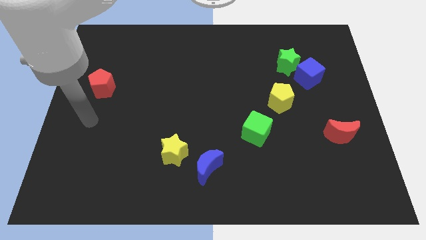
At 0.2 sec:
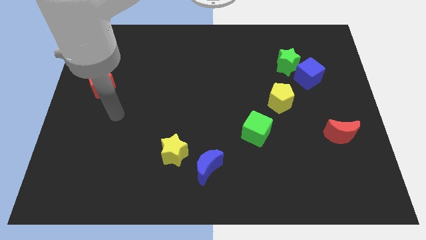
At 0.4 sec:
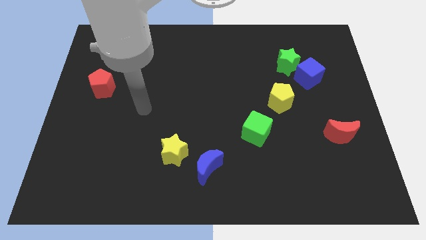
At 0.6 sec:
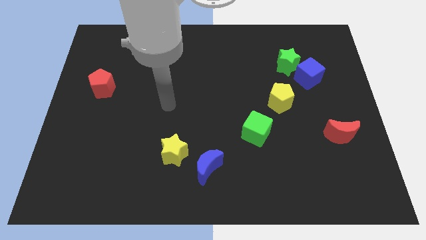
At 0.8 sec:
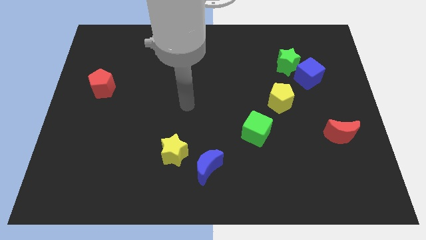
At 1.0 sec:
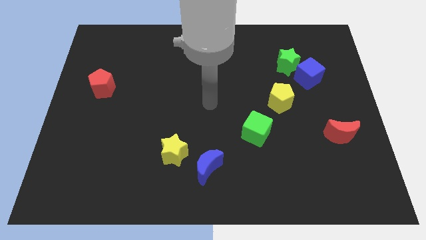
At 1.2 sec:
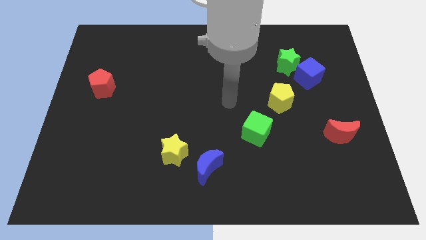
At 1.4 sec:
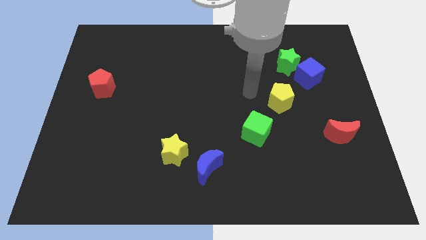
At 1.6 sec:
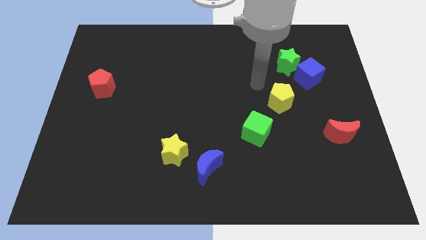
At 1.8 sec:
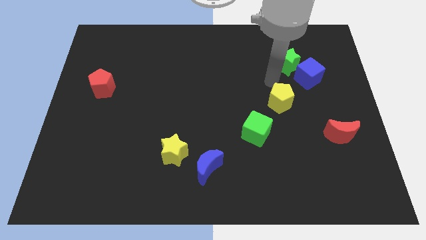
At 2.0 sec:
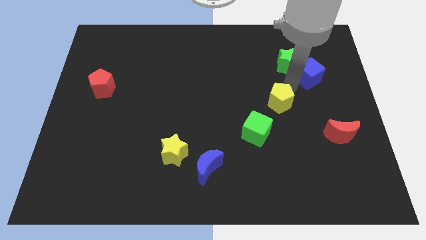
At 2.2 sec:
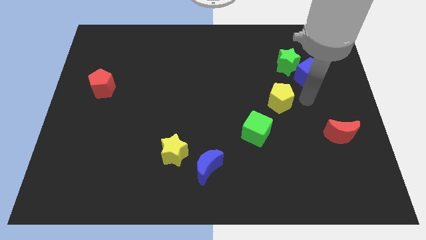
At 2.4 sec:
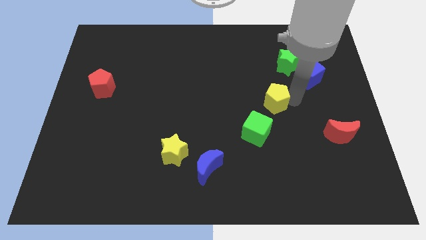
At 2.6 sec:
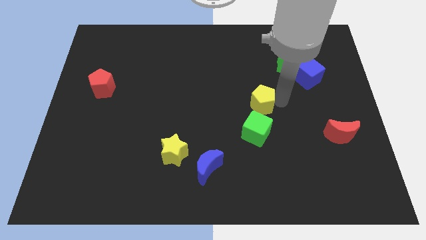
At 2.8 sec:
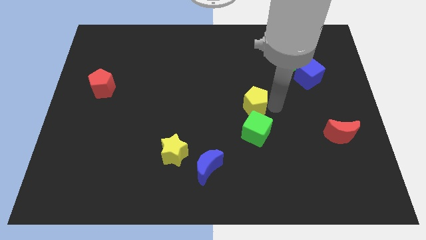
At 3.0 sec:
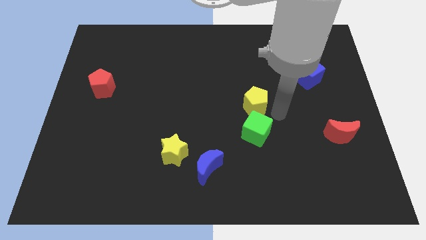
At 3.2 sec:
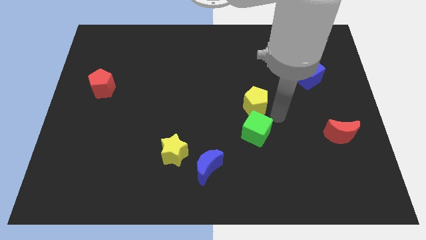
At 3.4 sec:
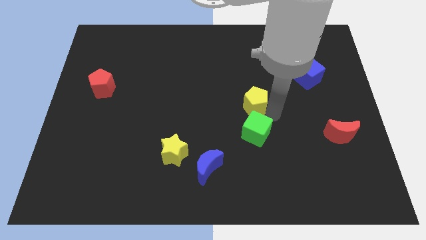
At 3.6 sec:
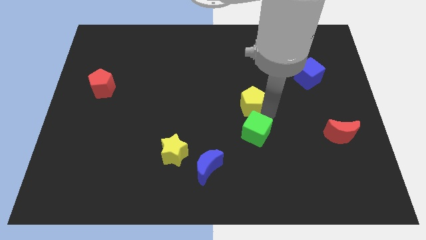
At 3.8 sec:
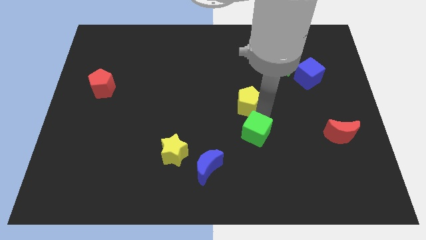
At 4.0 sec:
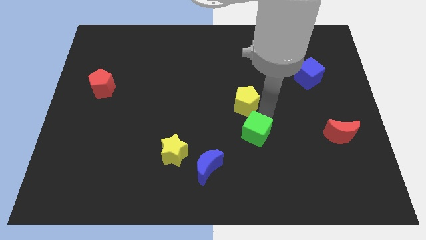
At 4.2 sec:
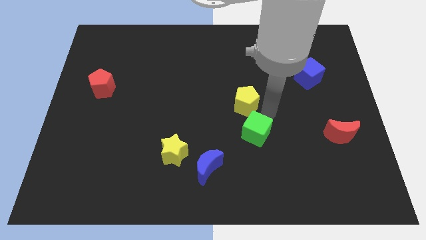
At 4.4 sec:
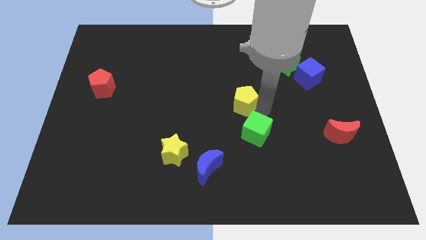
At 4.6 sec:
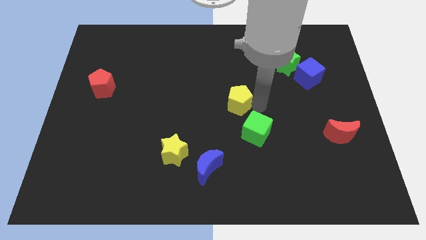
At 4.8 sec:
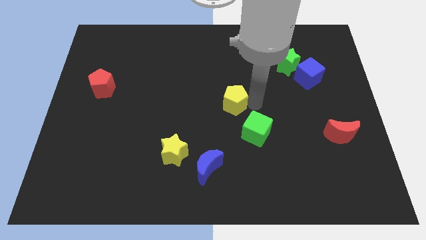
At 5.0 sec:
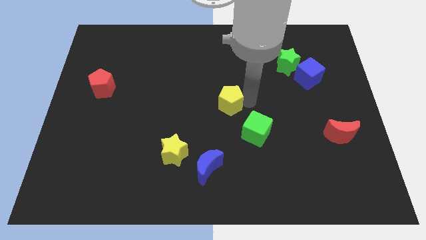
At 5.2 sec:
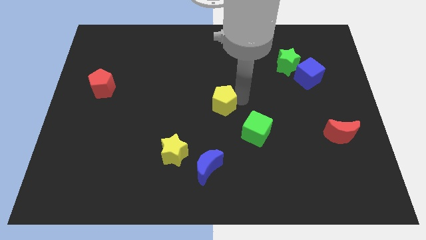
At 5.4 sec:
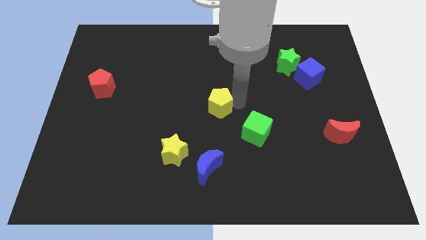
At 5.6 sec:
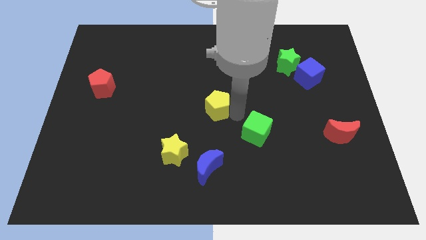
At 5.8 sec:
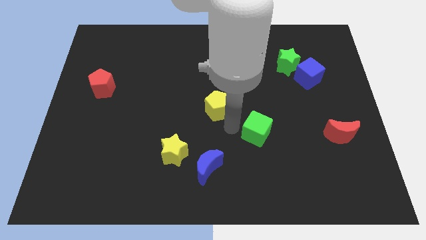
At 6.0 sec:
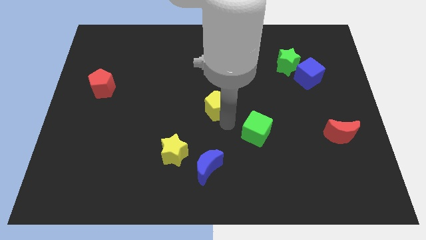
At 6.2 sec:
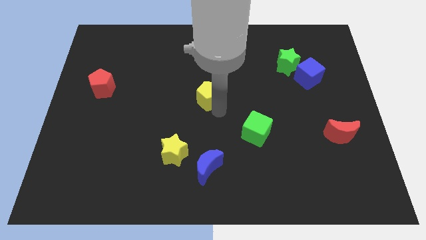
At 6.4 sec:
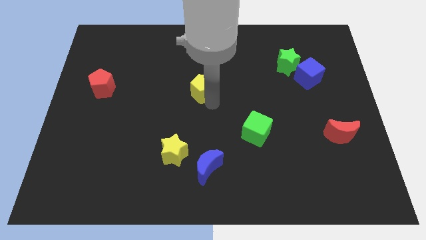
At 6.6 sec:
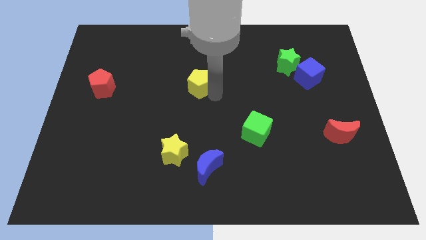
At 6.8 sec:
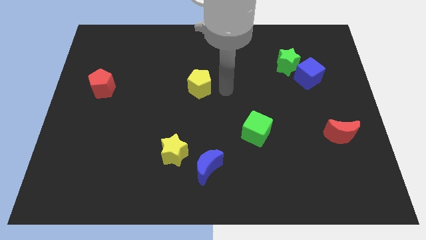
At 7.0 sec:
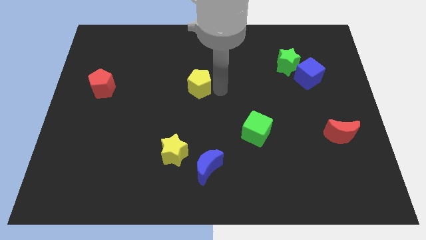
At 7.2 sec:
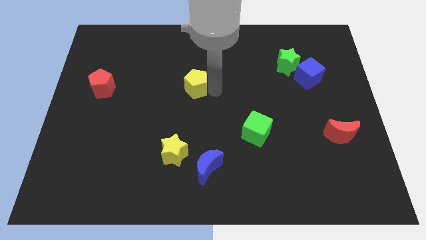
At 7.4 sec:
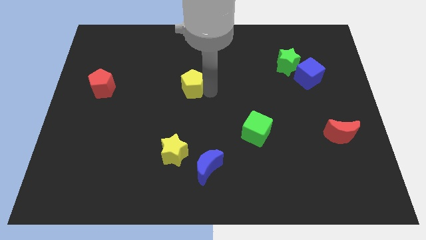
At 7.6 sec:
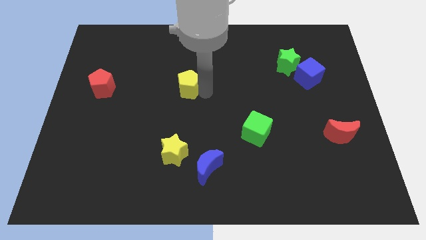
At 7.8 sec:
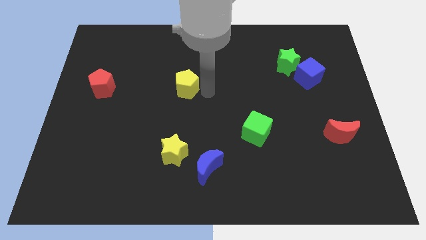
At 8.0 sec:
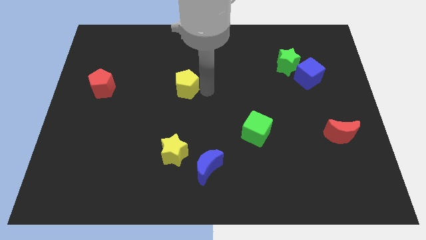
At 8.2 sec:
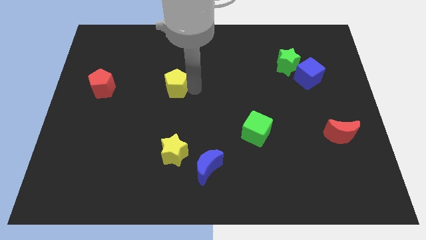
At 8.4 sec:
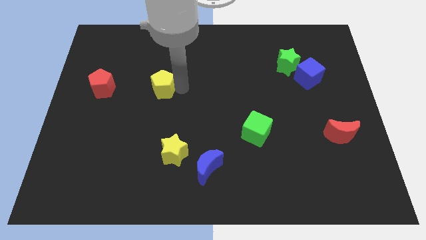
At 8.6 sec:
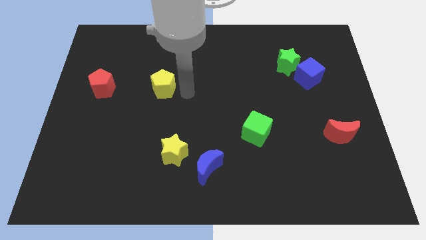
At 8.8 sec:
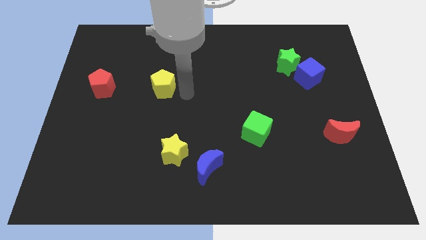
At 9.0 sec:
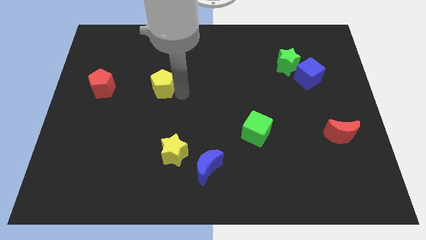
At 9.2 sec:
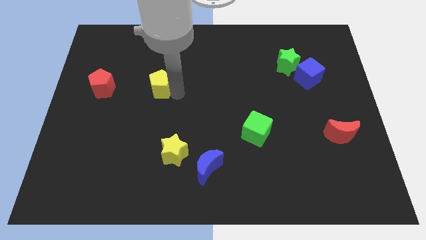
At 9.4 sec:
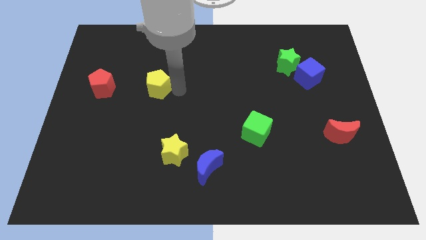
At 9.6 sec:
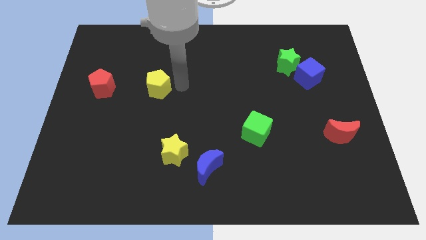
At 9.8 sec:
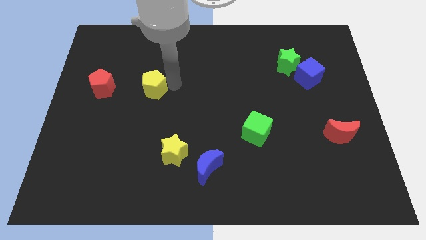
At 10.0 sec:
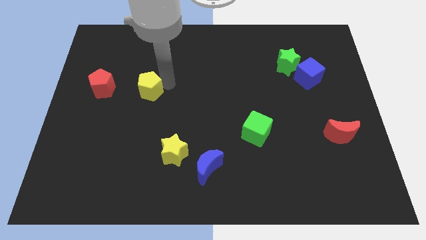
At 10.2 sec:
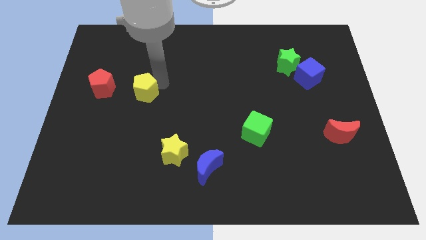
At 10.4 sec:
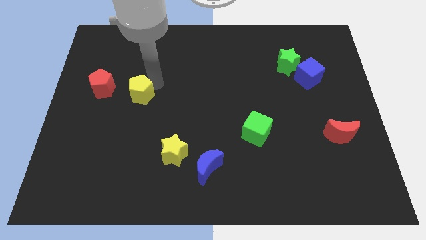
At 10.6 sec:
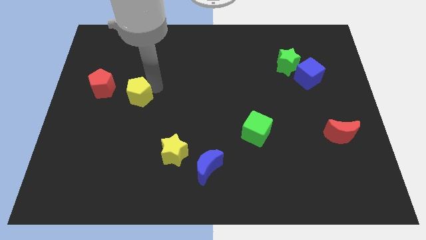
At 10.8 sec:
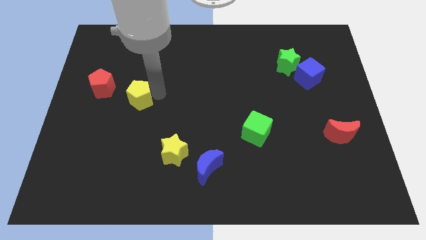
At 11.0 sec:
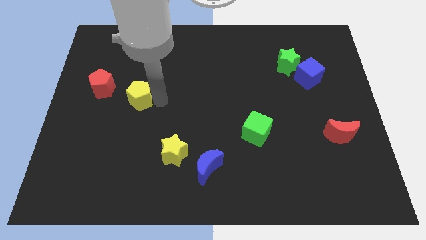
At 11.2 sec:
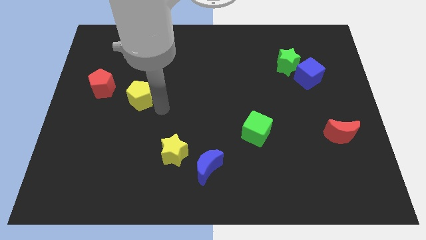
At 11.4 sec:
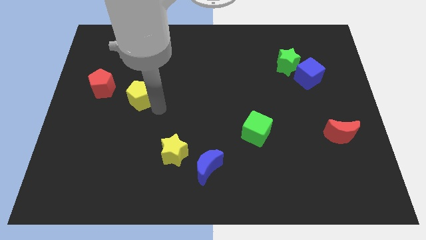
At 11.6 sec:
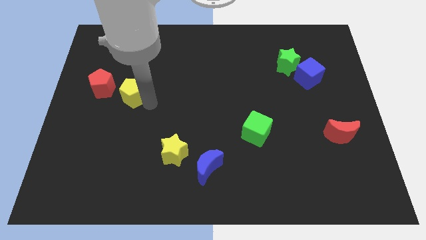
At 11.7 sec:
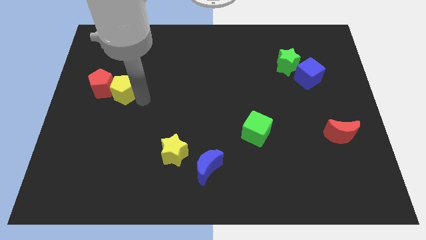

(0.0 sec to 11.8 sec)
push the yellow pentagon close to the red pentagon

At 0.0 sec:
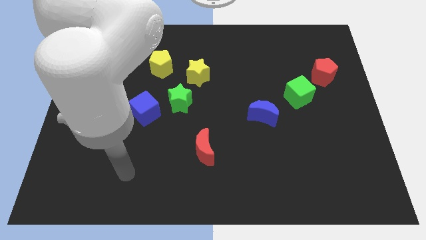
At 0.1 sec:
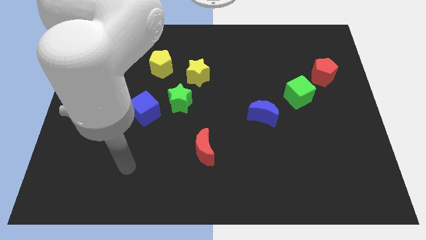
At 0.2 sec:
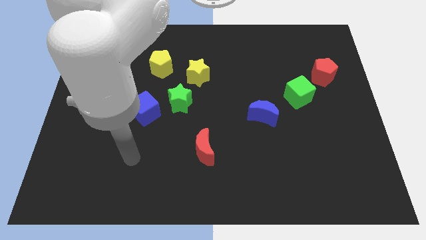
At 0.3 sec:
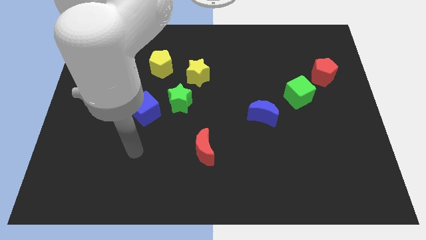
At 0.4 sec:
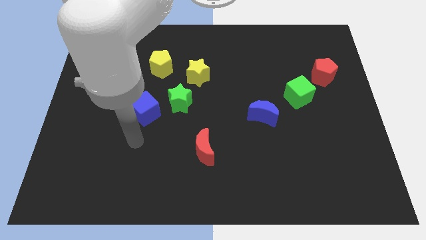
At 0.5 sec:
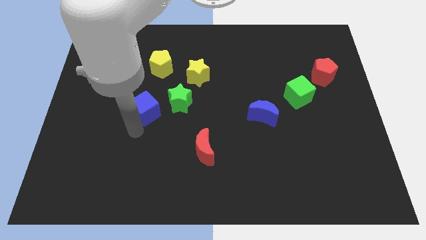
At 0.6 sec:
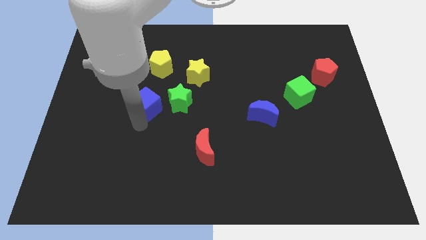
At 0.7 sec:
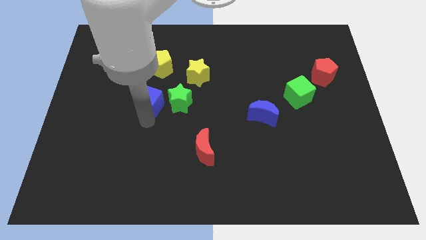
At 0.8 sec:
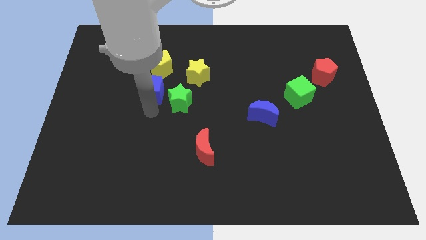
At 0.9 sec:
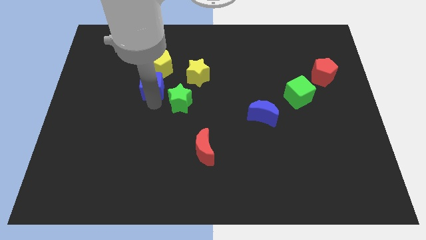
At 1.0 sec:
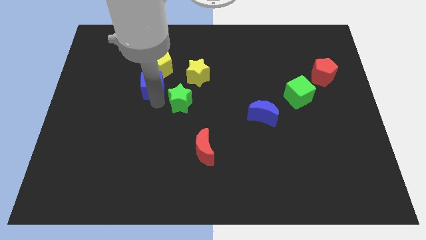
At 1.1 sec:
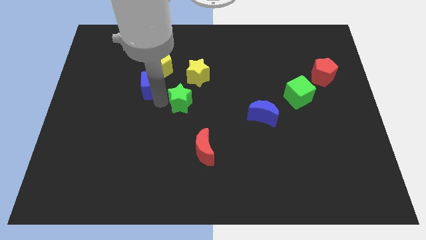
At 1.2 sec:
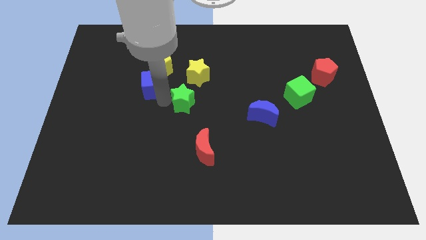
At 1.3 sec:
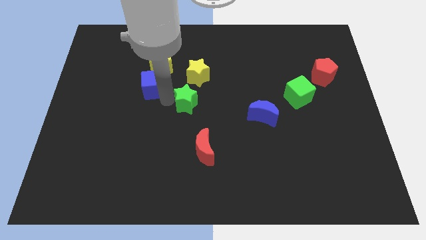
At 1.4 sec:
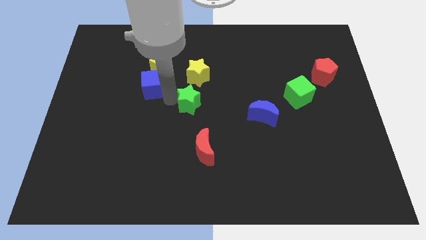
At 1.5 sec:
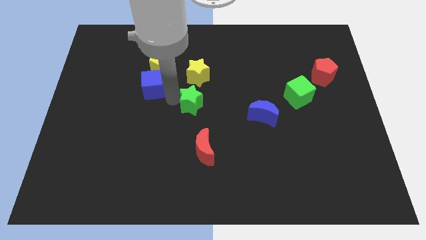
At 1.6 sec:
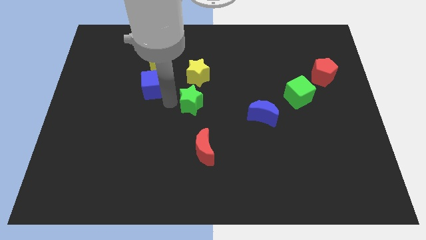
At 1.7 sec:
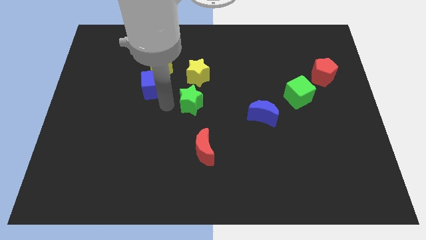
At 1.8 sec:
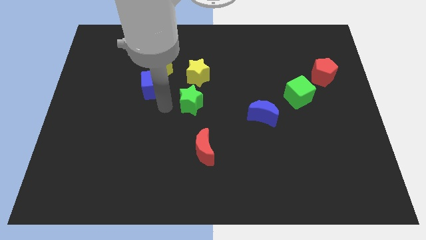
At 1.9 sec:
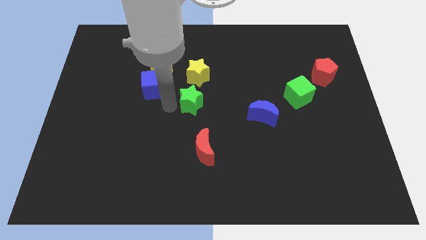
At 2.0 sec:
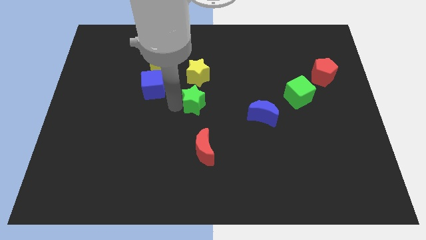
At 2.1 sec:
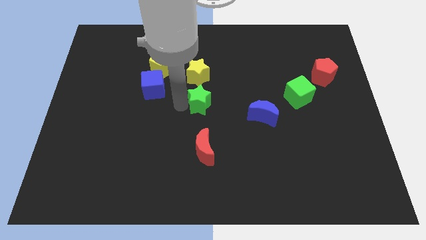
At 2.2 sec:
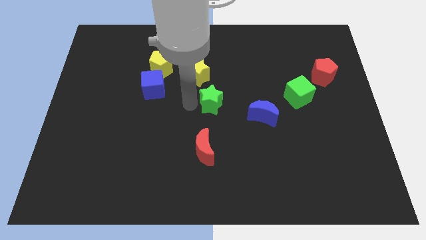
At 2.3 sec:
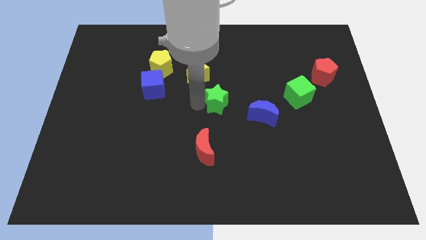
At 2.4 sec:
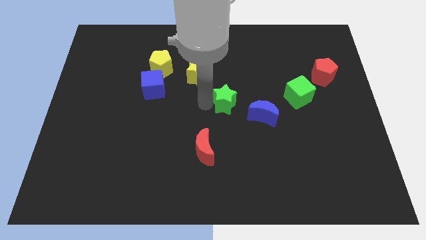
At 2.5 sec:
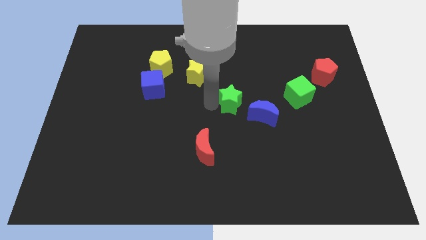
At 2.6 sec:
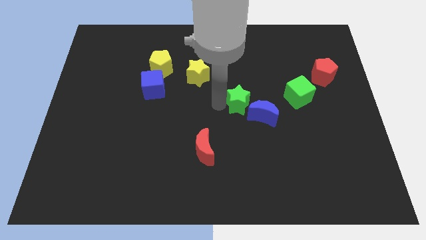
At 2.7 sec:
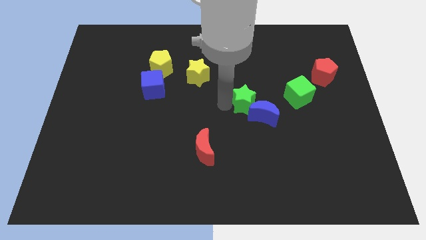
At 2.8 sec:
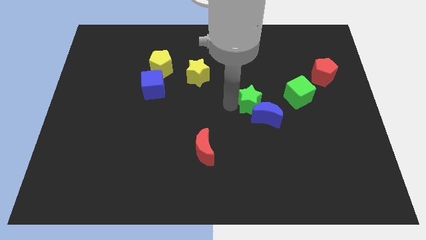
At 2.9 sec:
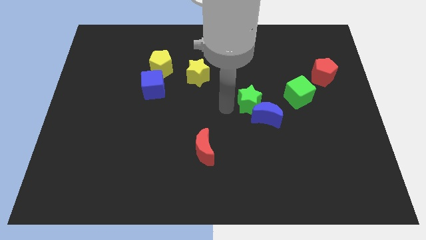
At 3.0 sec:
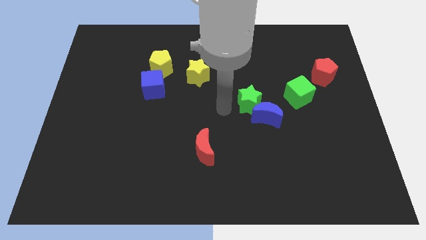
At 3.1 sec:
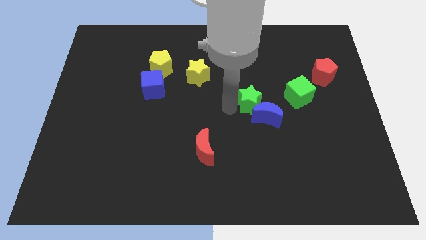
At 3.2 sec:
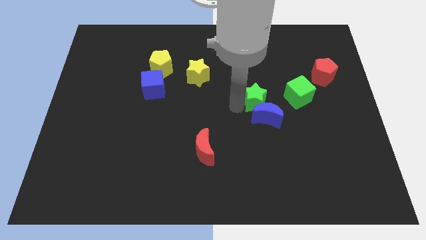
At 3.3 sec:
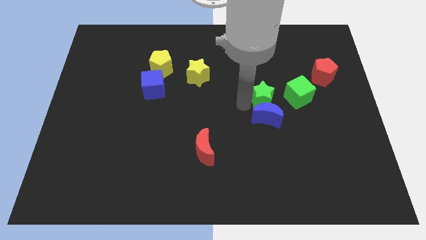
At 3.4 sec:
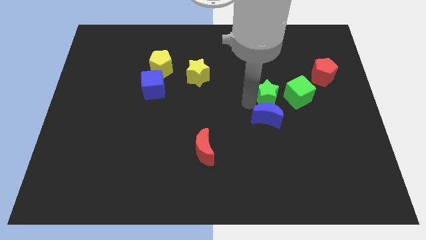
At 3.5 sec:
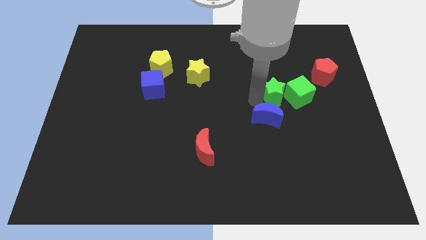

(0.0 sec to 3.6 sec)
push the green star next to the green cube
